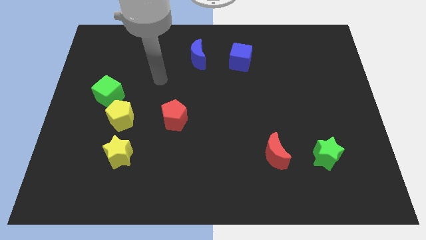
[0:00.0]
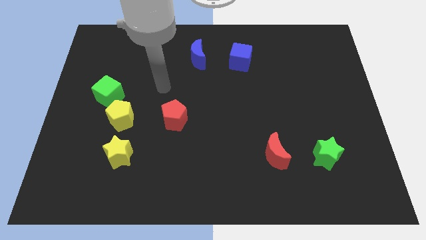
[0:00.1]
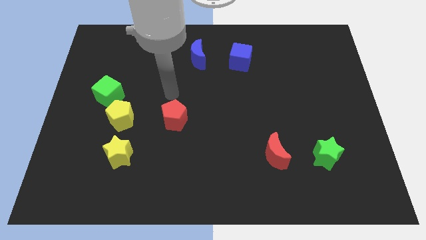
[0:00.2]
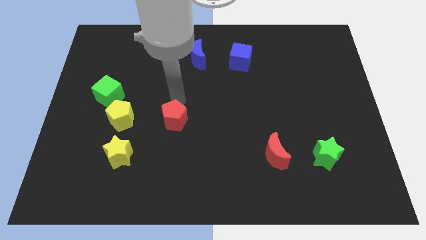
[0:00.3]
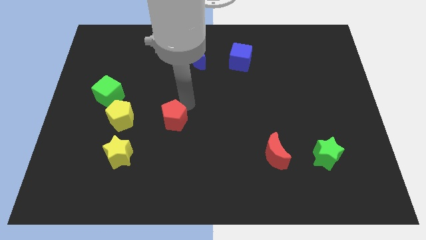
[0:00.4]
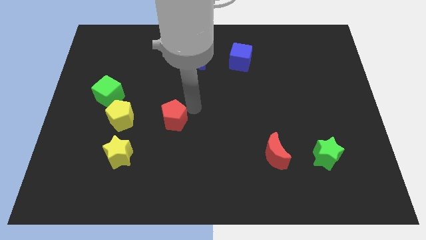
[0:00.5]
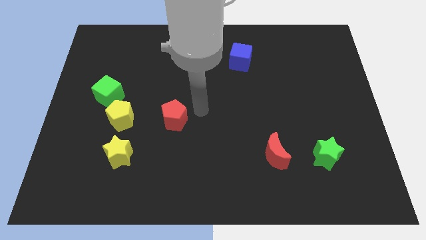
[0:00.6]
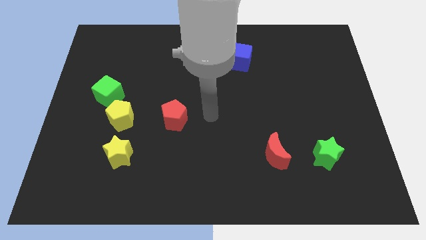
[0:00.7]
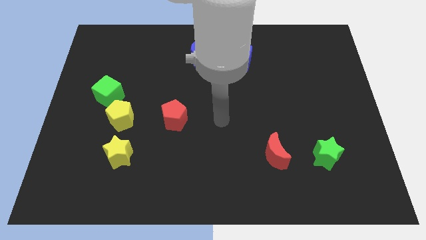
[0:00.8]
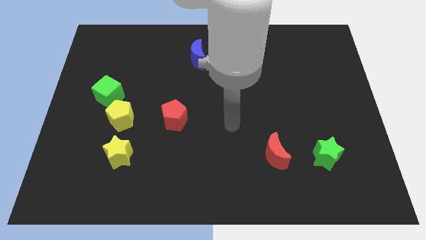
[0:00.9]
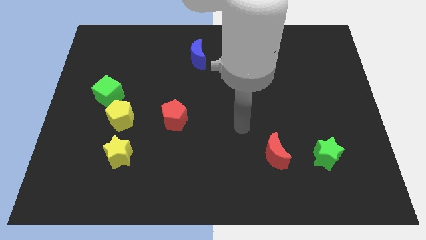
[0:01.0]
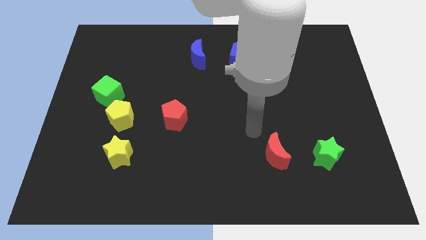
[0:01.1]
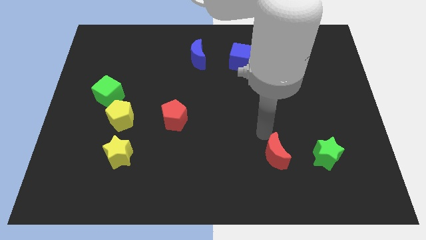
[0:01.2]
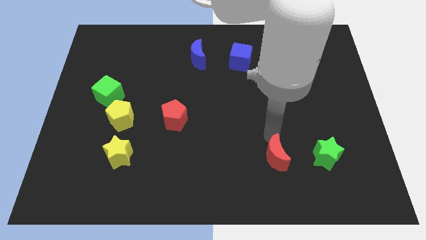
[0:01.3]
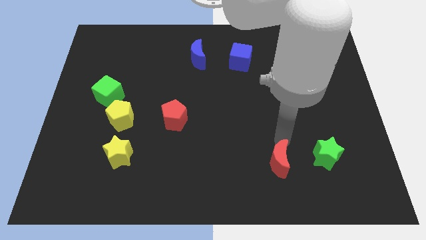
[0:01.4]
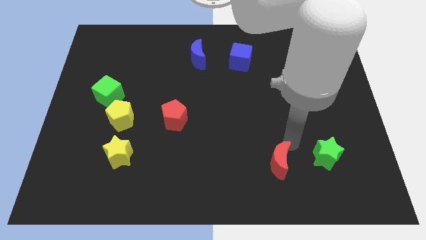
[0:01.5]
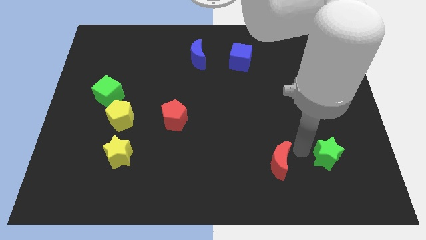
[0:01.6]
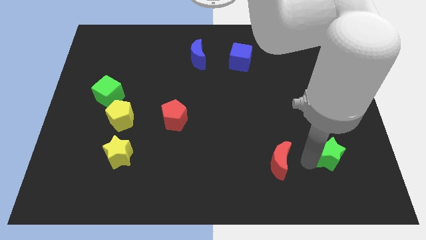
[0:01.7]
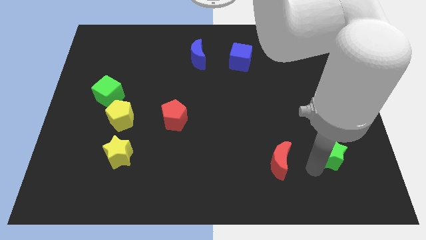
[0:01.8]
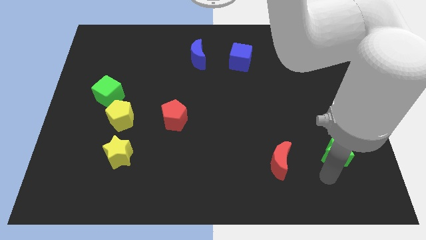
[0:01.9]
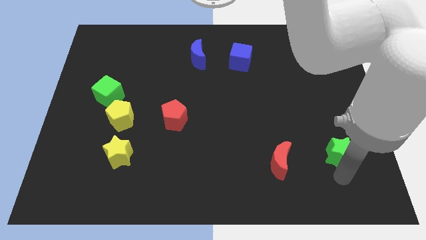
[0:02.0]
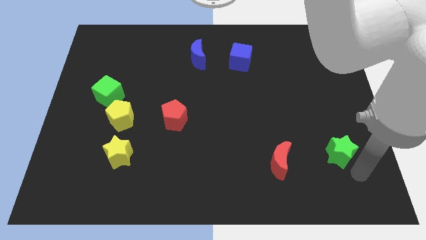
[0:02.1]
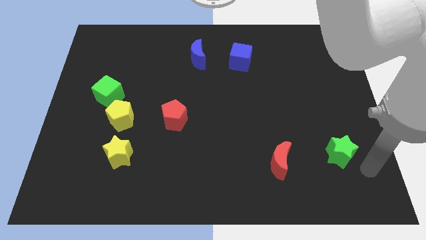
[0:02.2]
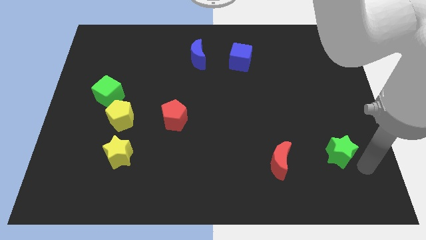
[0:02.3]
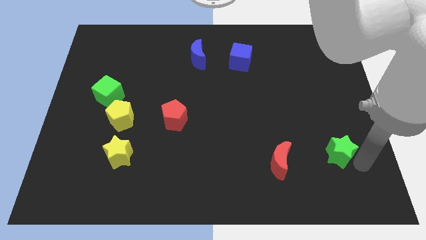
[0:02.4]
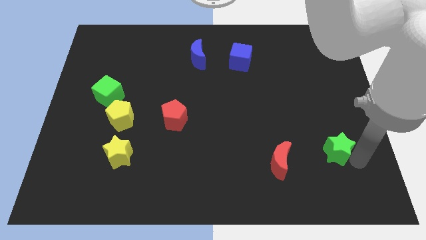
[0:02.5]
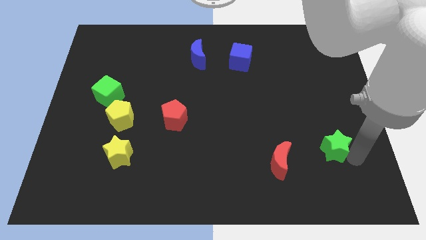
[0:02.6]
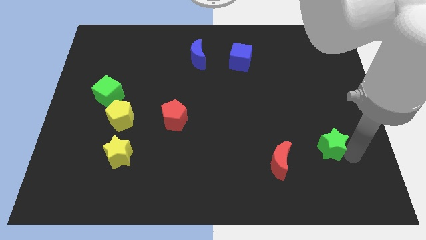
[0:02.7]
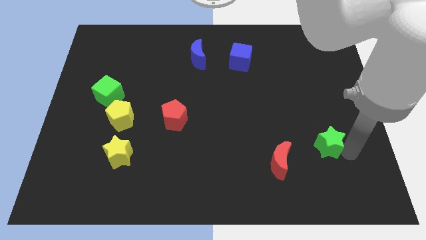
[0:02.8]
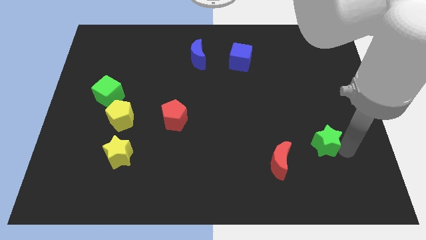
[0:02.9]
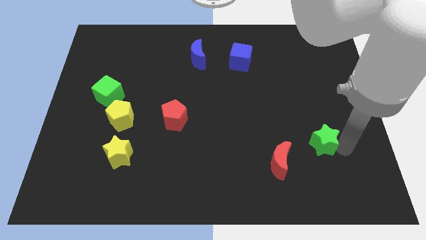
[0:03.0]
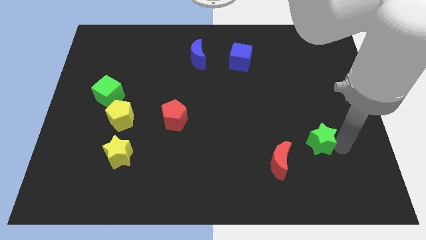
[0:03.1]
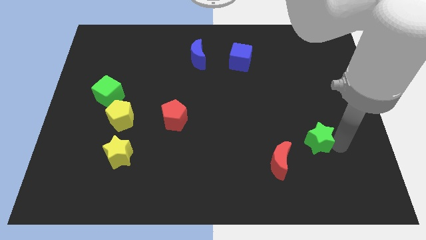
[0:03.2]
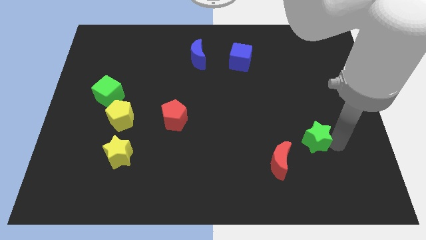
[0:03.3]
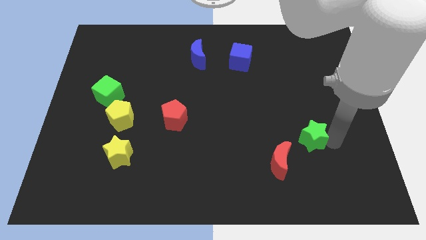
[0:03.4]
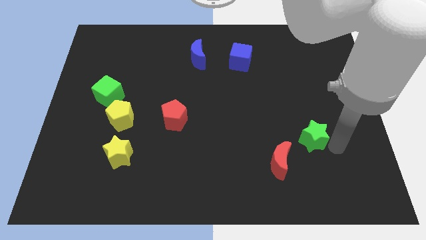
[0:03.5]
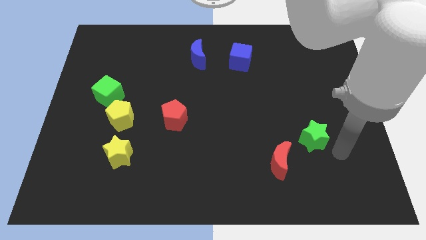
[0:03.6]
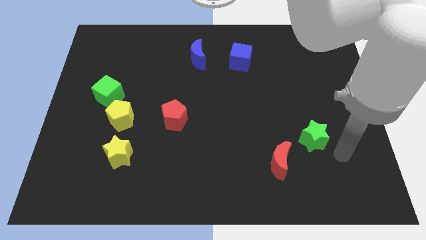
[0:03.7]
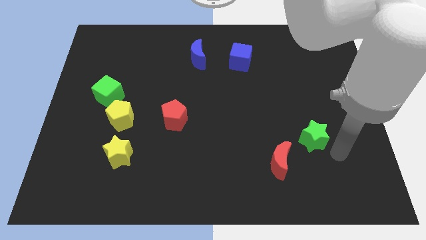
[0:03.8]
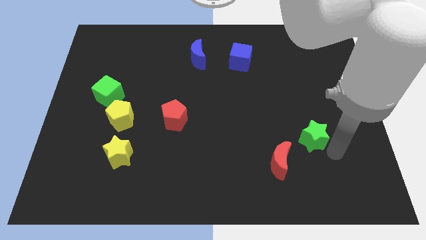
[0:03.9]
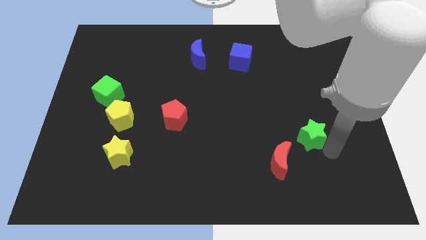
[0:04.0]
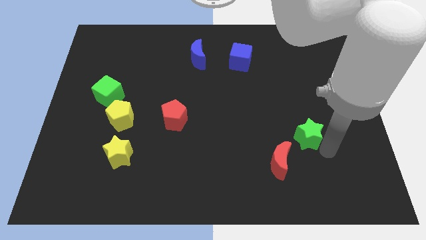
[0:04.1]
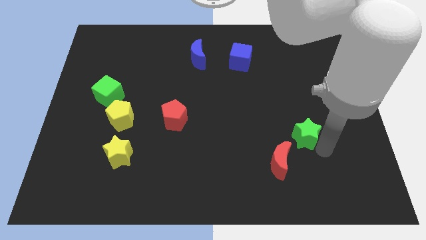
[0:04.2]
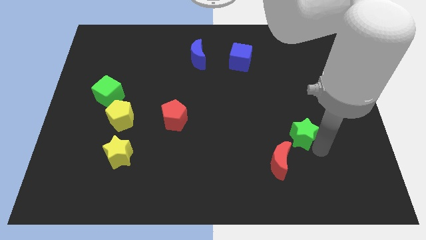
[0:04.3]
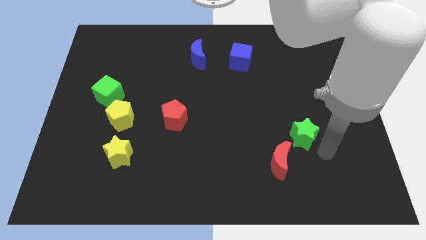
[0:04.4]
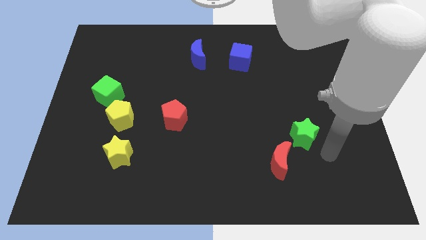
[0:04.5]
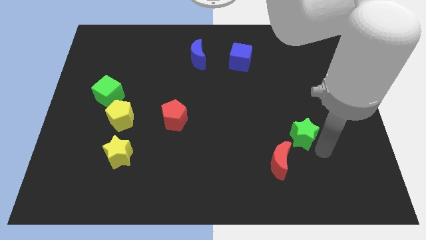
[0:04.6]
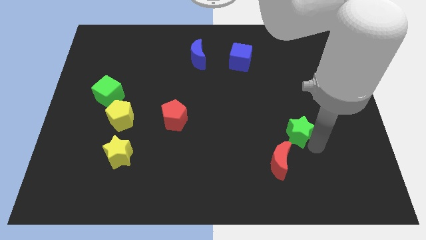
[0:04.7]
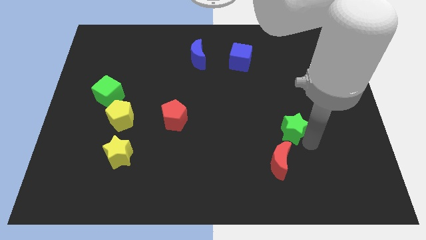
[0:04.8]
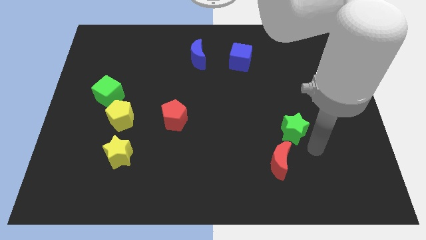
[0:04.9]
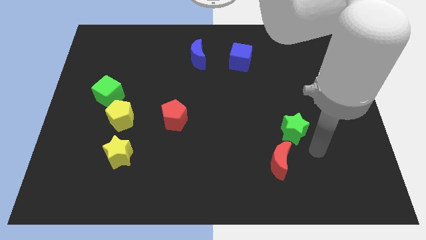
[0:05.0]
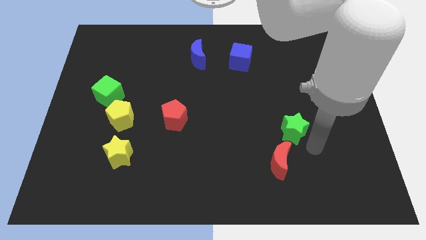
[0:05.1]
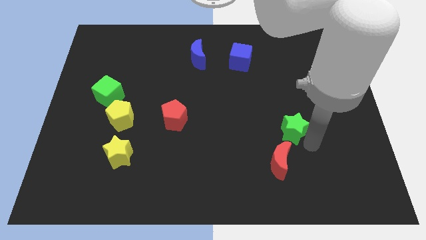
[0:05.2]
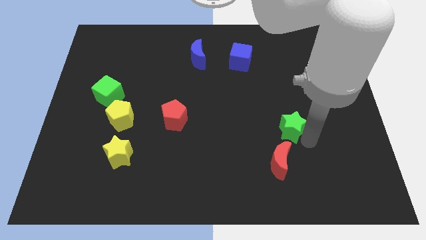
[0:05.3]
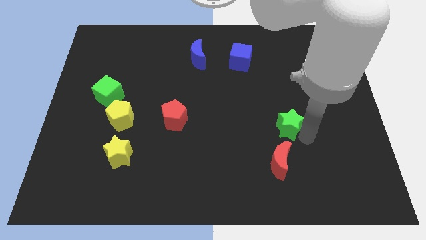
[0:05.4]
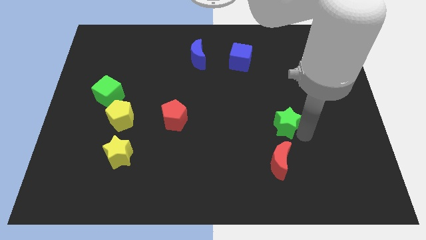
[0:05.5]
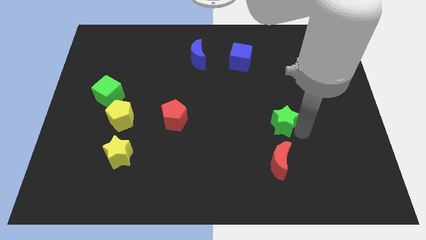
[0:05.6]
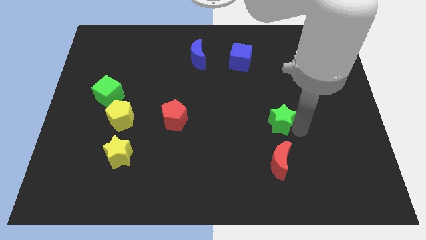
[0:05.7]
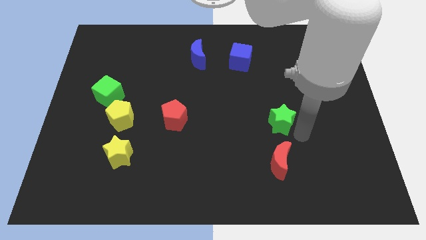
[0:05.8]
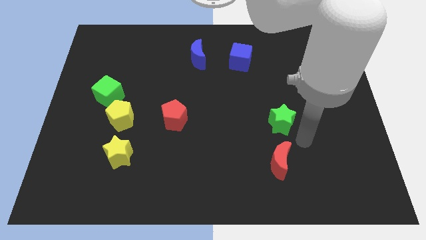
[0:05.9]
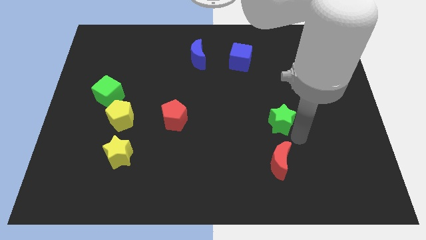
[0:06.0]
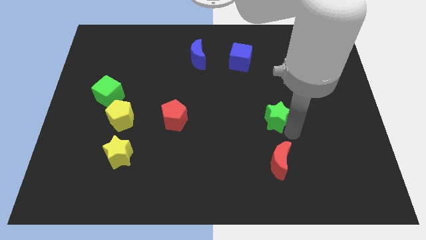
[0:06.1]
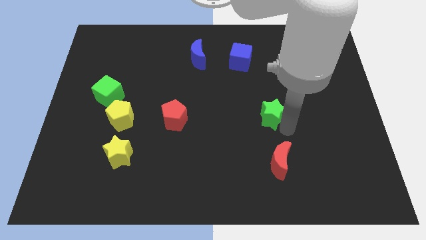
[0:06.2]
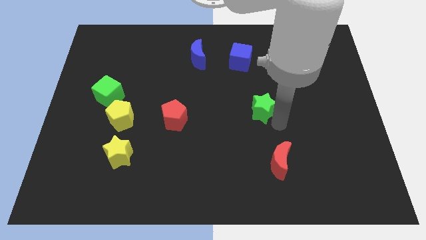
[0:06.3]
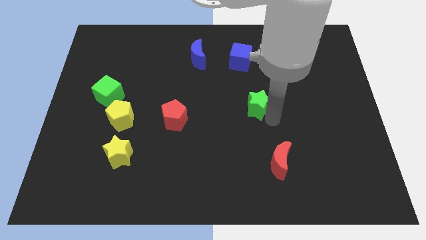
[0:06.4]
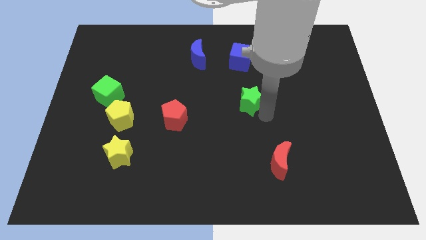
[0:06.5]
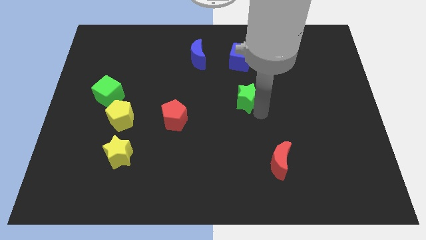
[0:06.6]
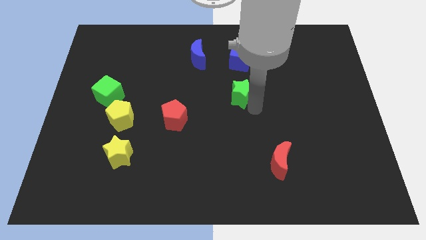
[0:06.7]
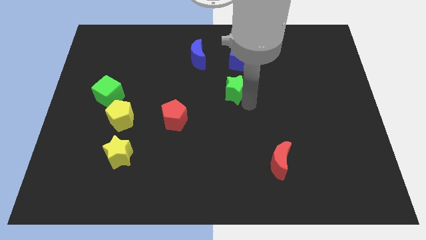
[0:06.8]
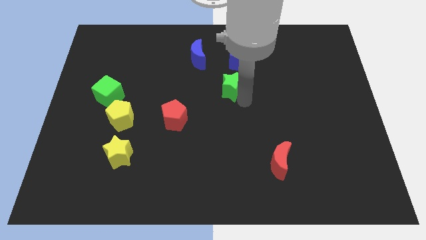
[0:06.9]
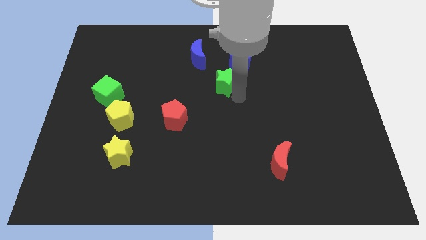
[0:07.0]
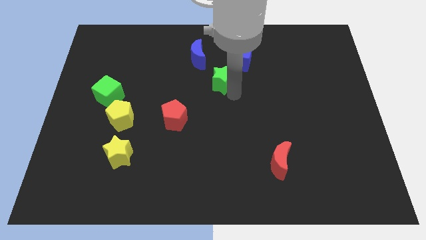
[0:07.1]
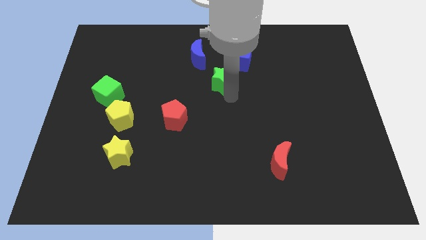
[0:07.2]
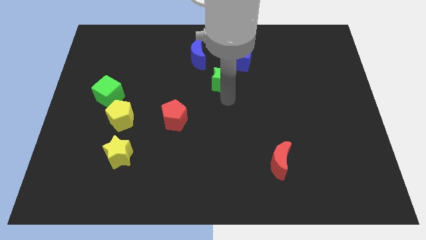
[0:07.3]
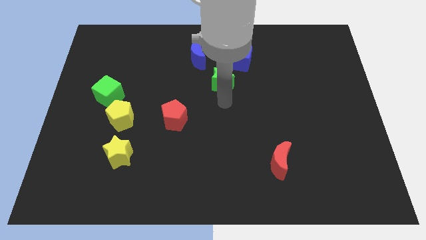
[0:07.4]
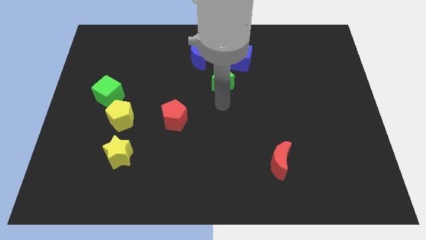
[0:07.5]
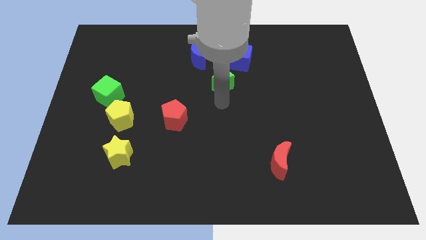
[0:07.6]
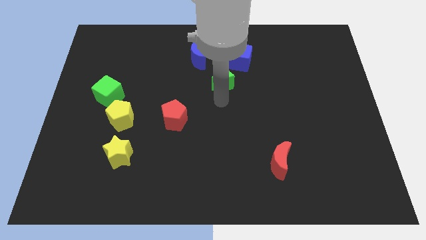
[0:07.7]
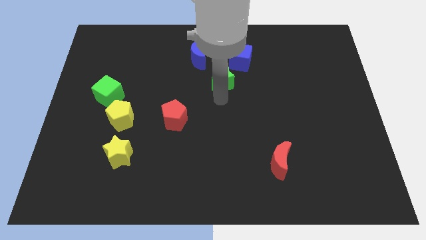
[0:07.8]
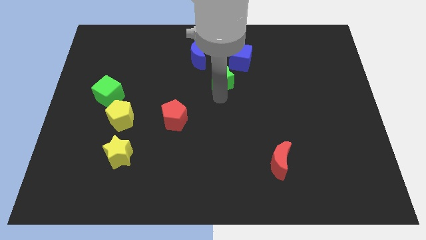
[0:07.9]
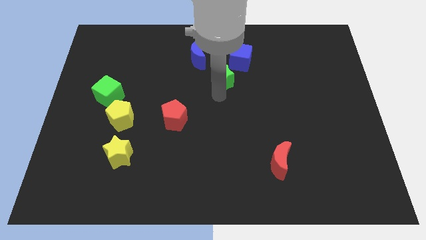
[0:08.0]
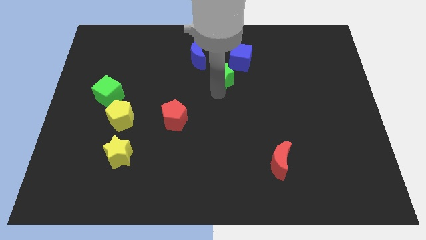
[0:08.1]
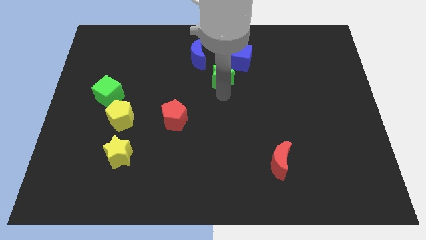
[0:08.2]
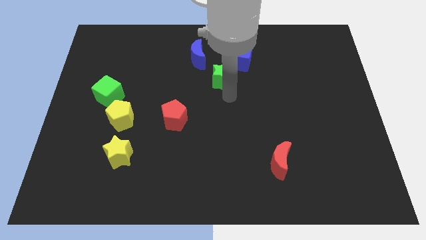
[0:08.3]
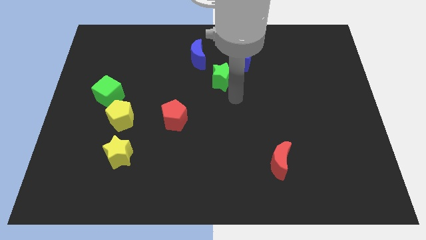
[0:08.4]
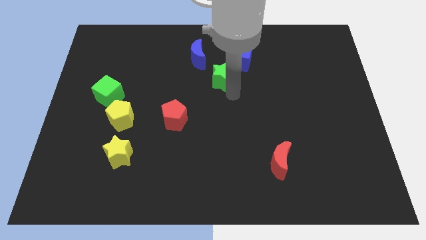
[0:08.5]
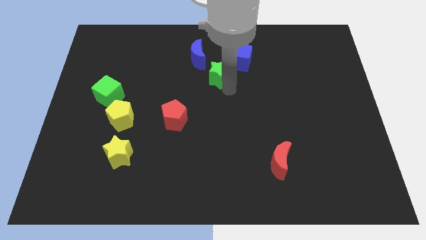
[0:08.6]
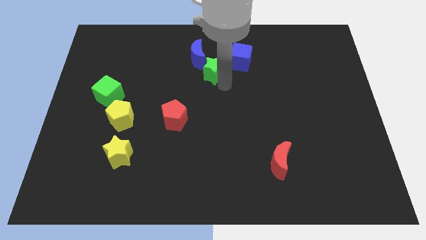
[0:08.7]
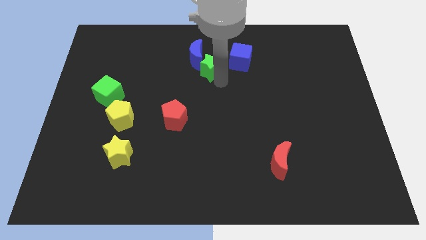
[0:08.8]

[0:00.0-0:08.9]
move the green star to the blue moon
